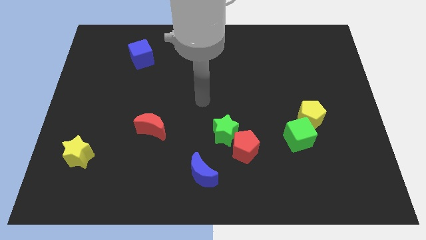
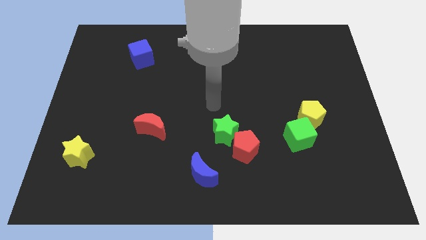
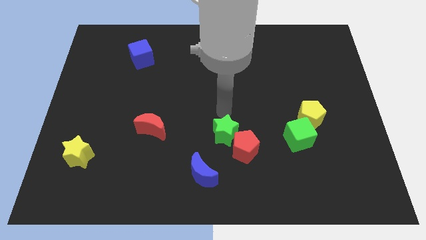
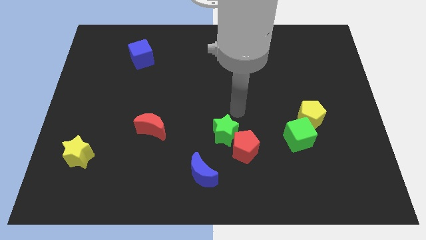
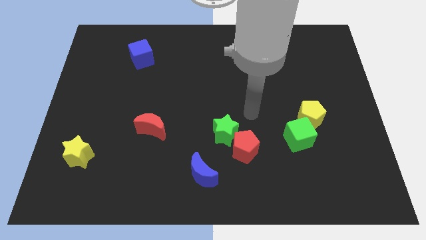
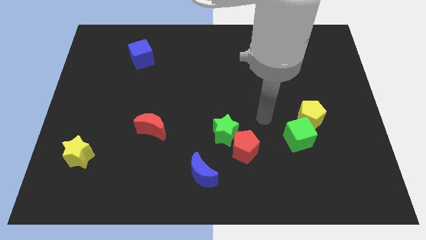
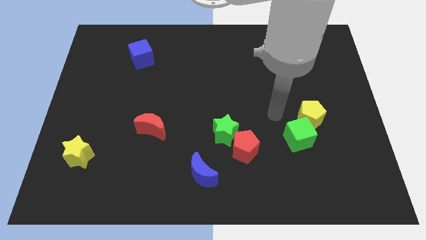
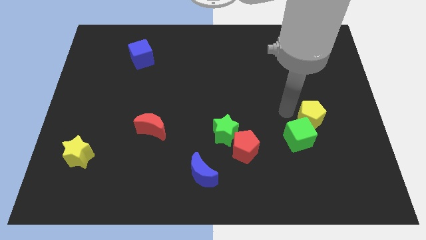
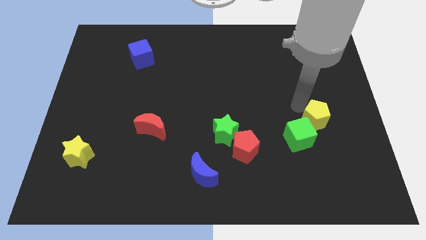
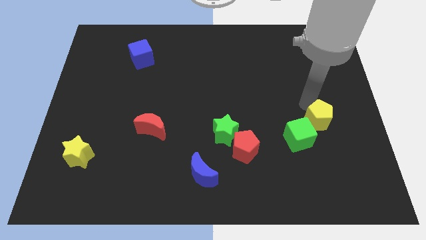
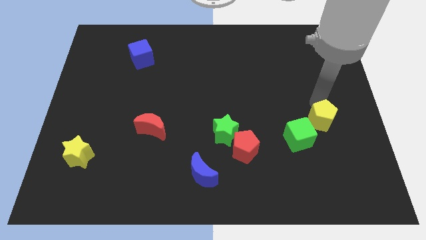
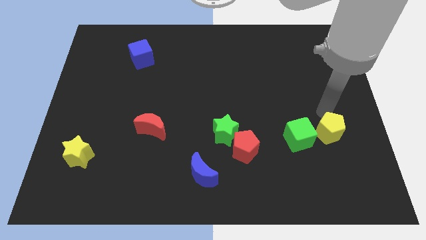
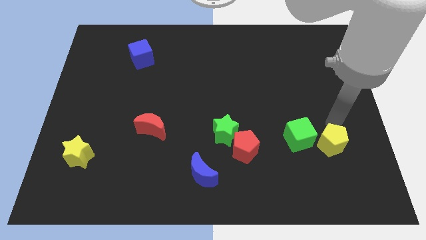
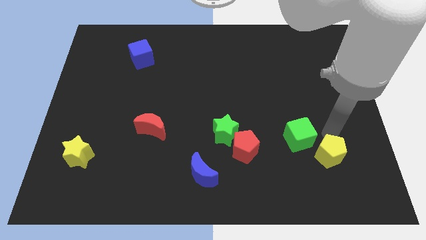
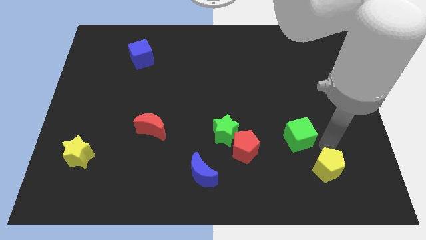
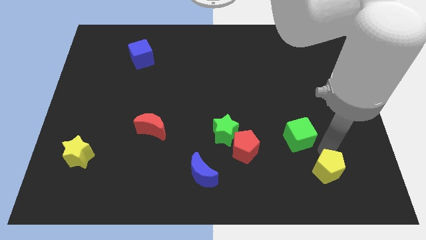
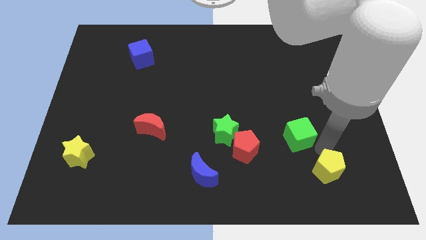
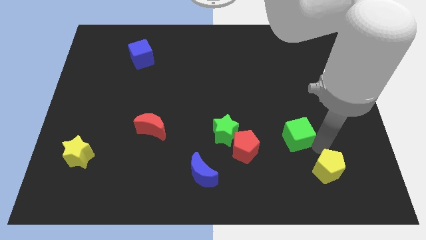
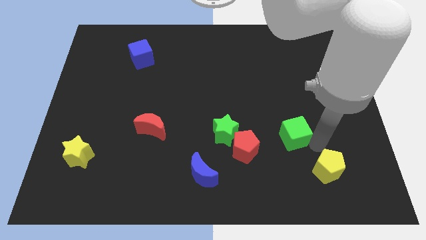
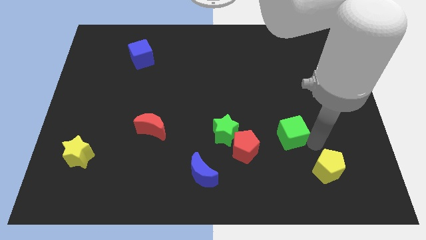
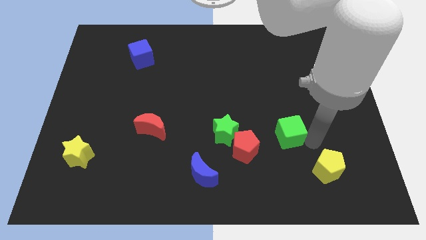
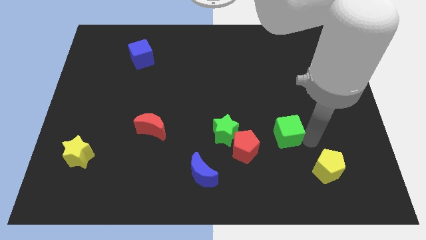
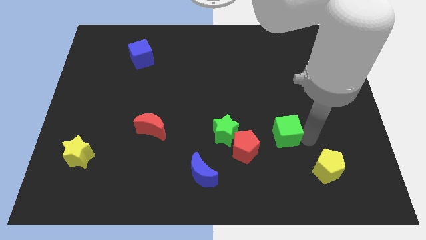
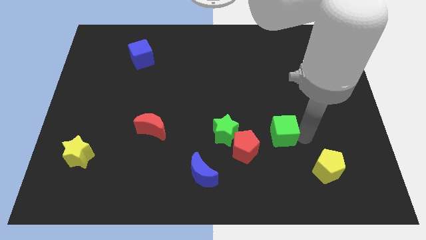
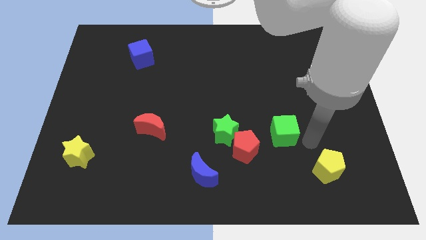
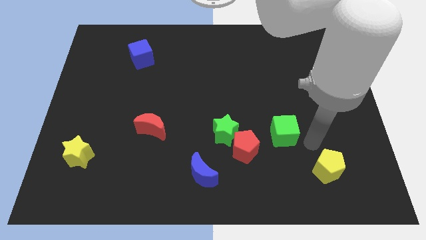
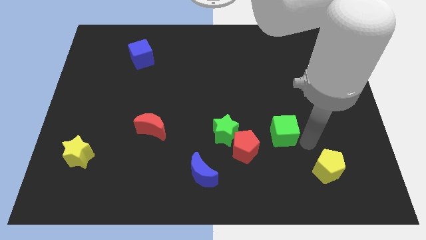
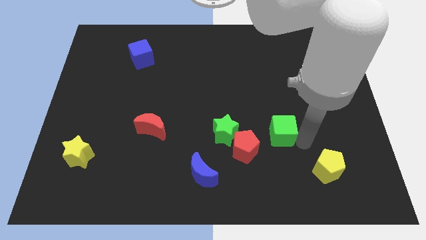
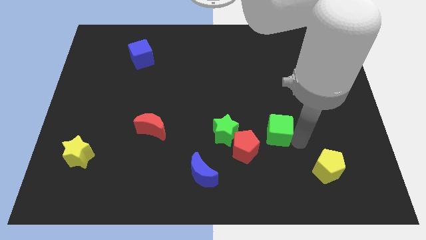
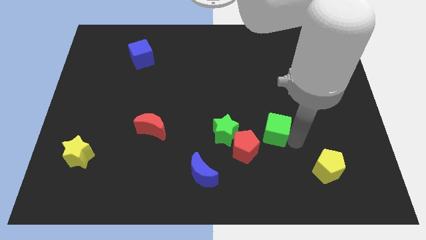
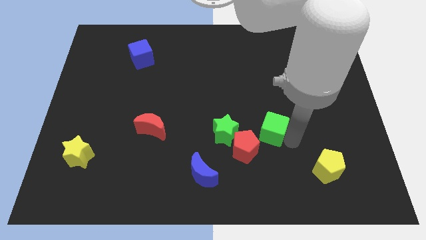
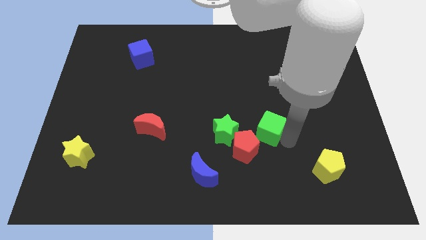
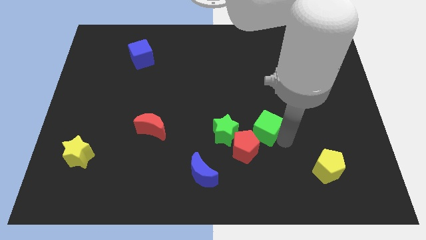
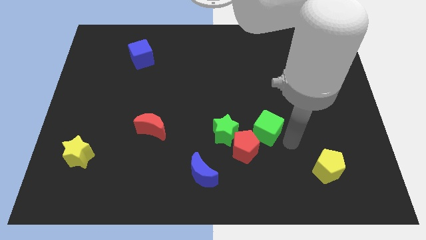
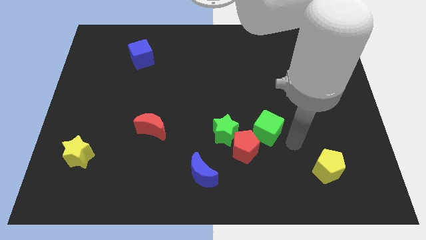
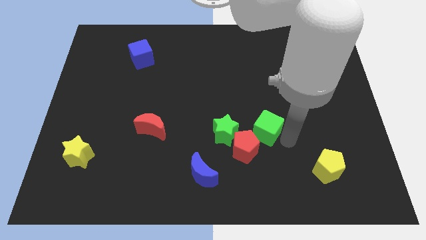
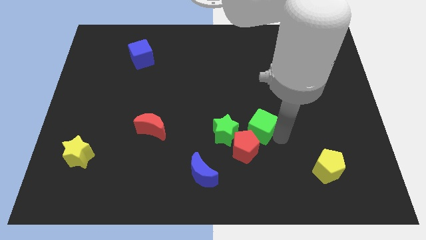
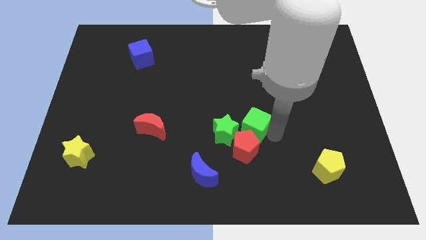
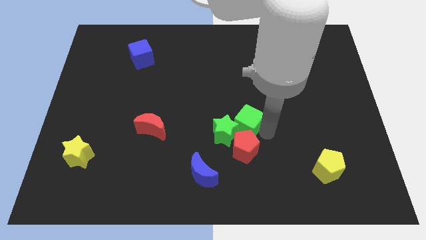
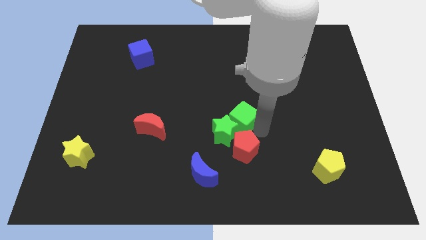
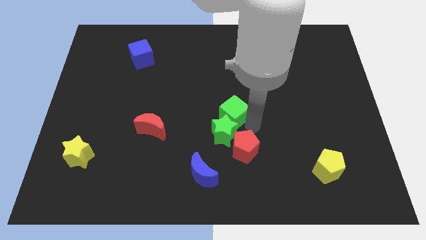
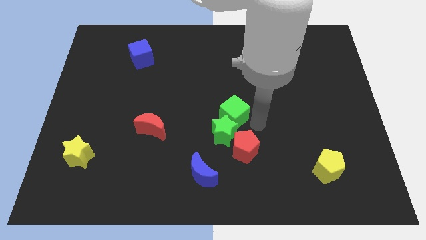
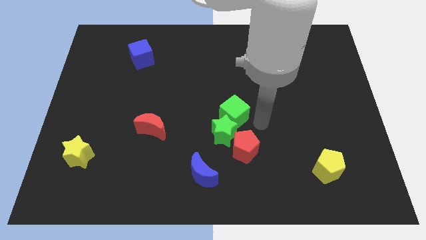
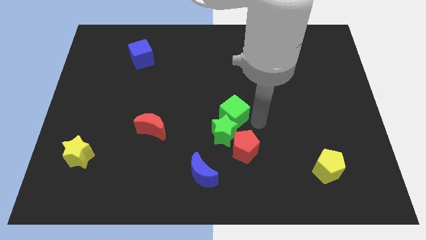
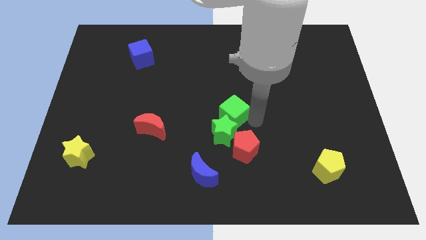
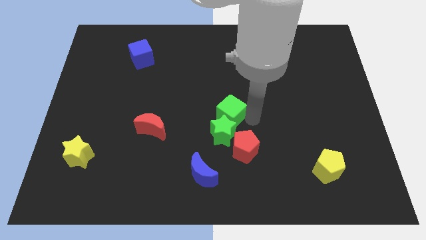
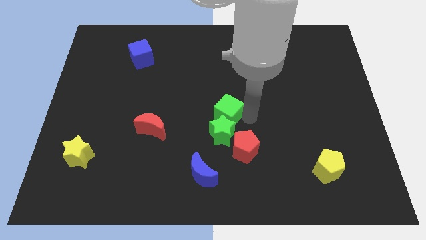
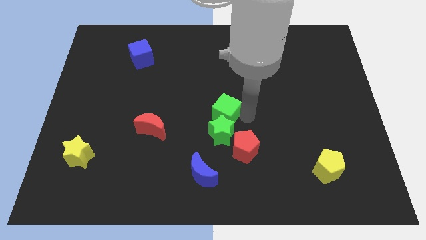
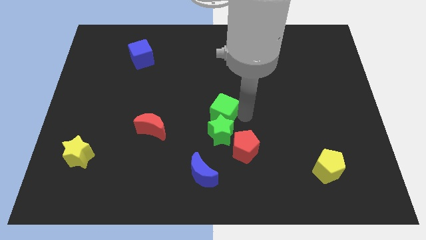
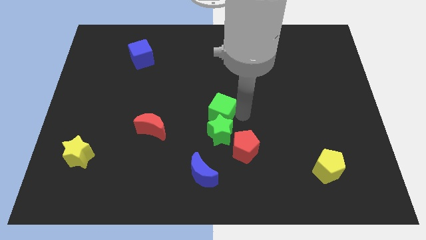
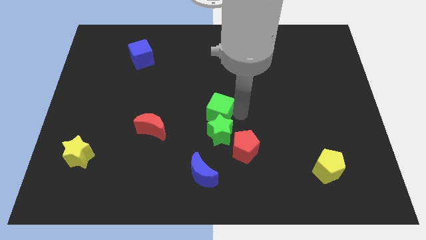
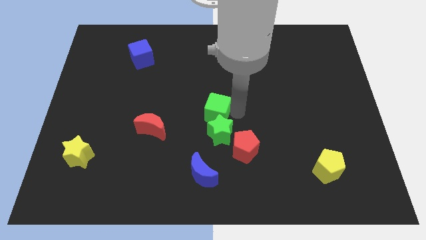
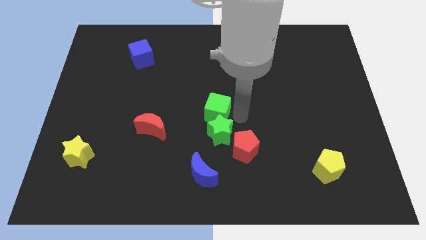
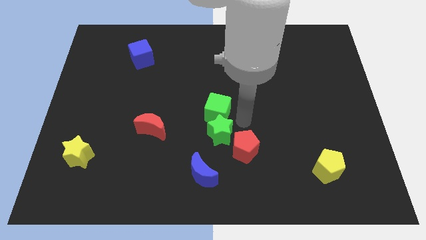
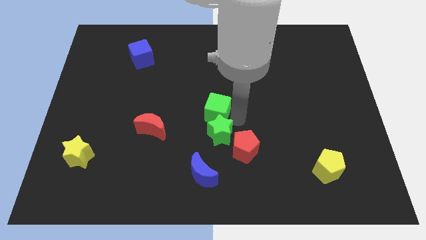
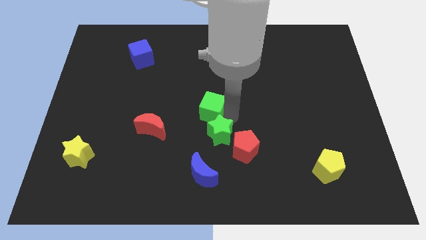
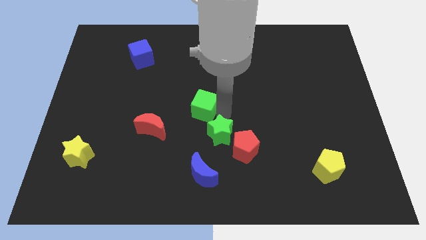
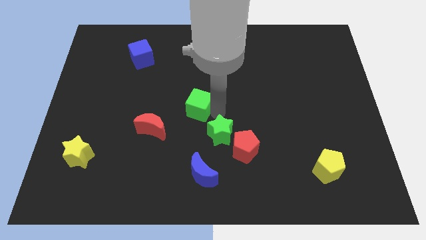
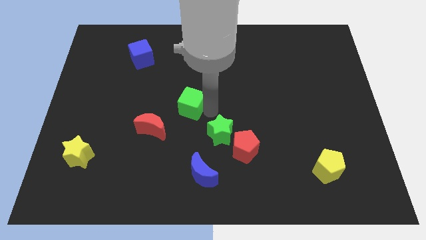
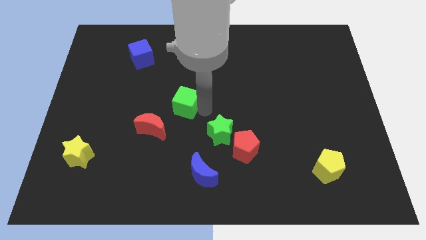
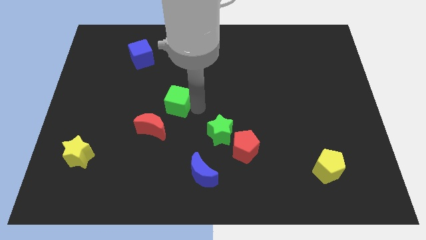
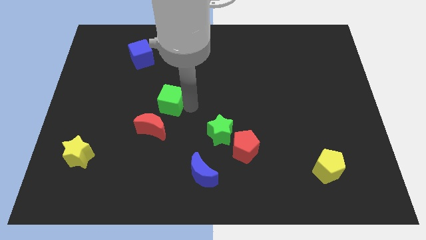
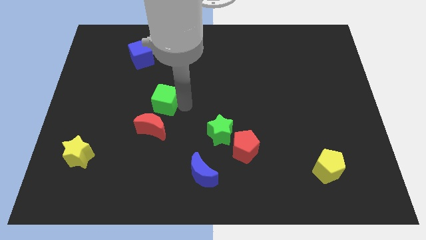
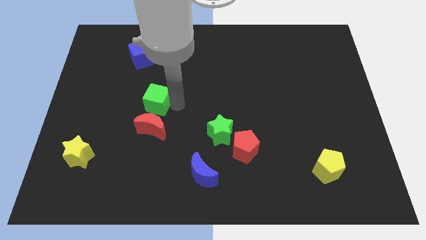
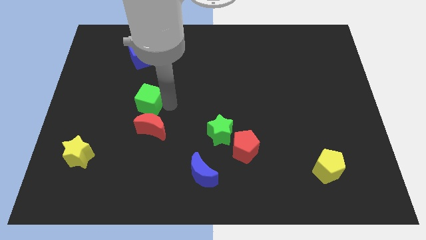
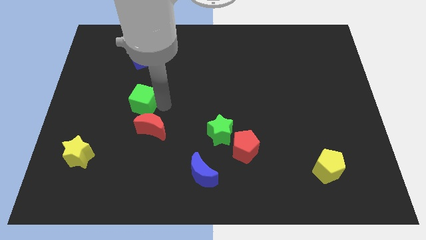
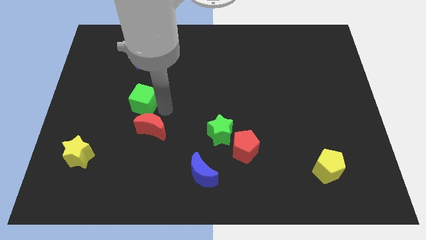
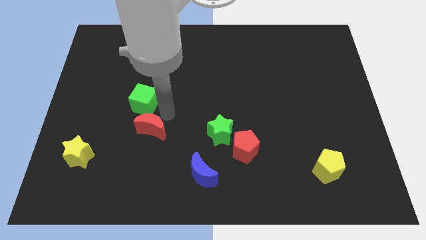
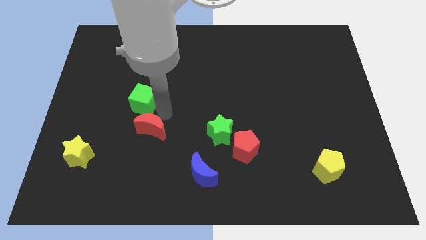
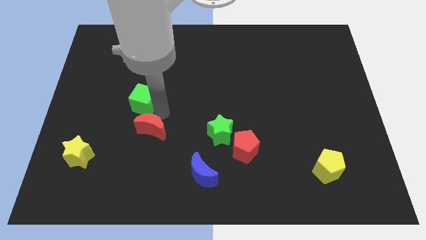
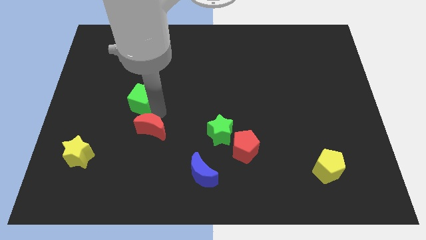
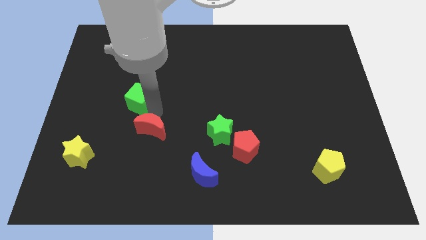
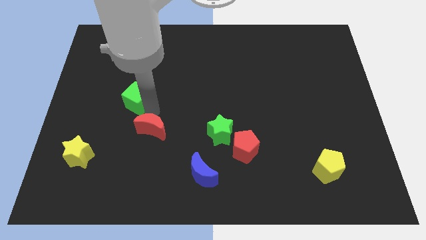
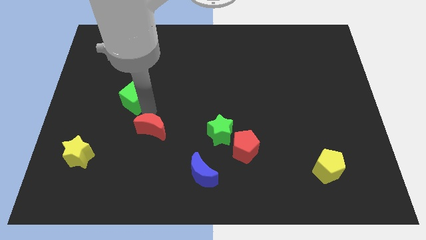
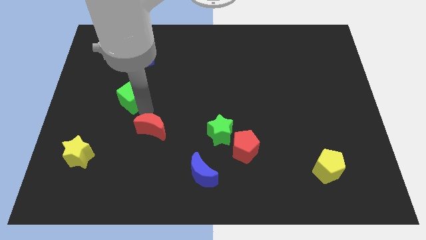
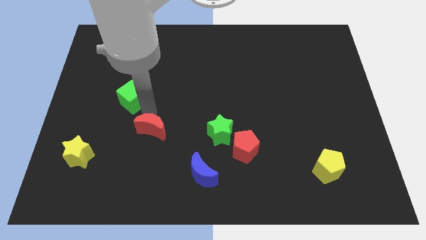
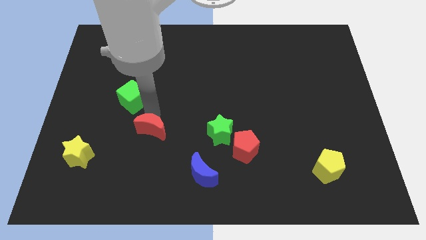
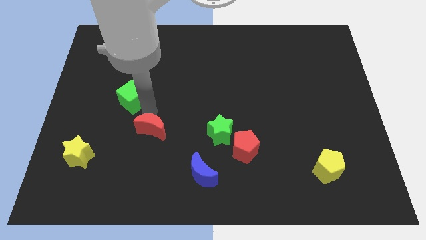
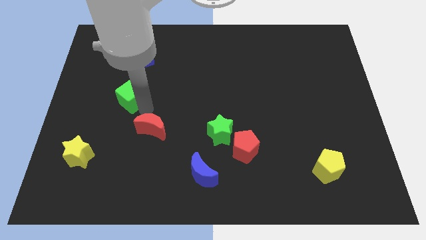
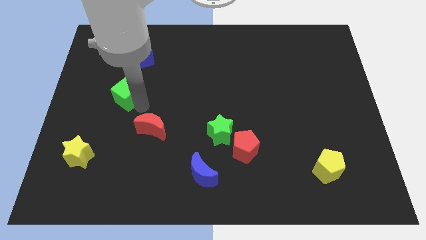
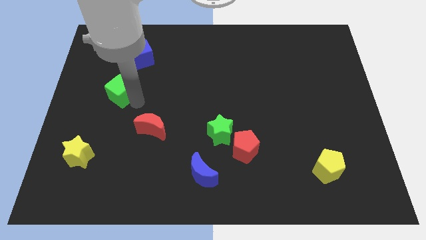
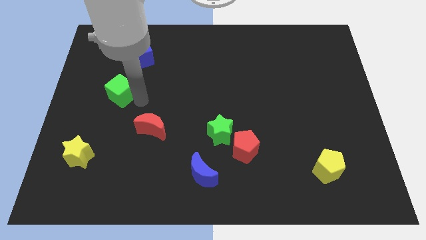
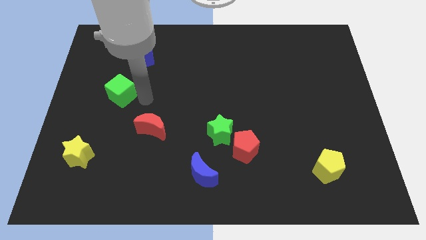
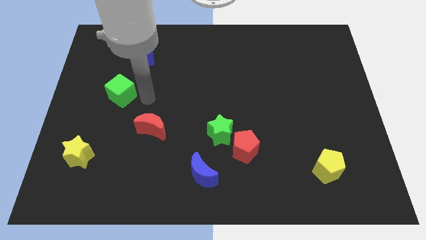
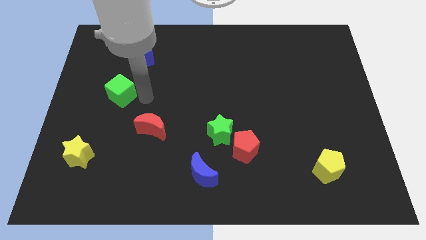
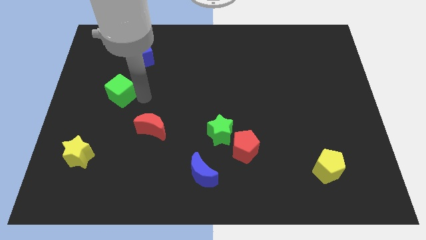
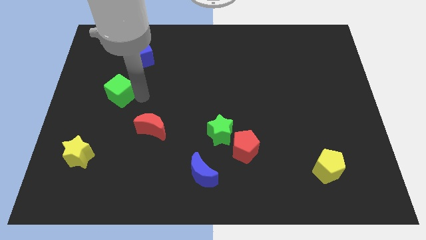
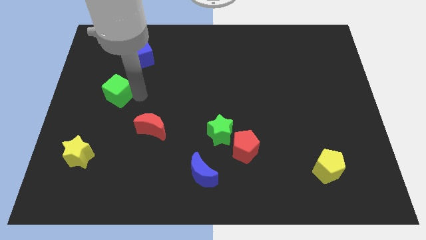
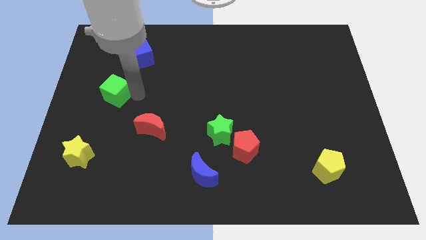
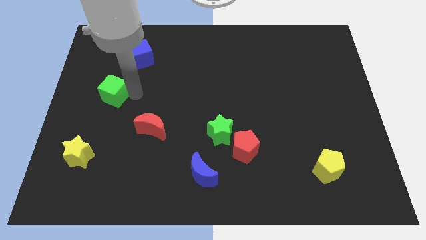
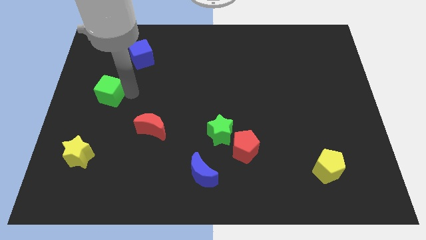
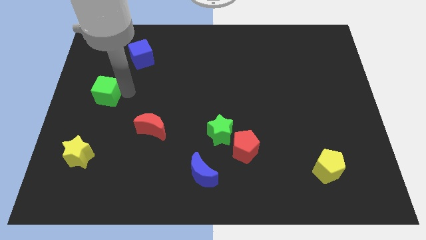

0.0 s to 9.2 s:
push the green cube to the center left
